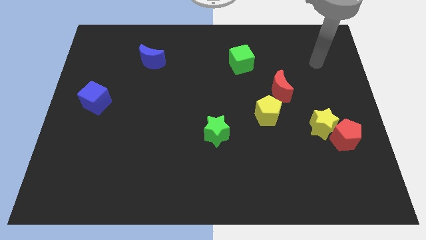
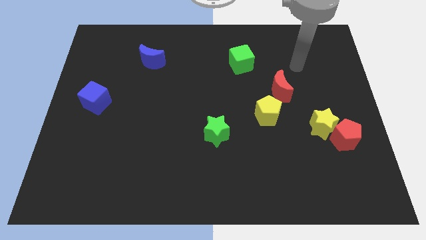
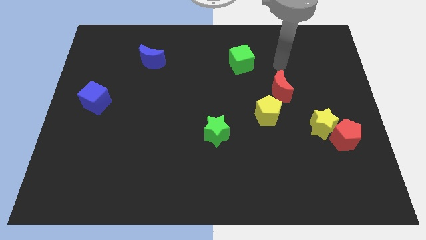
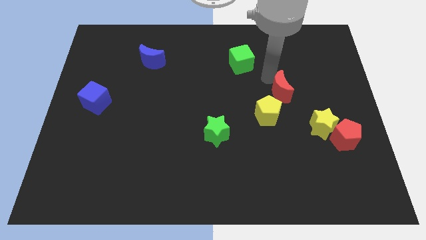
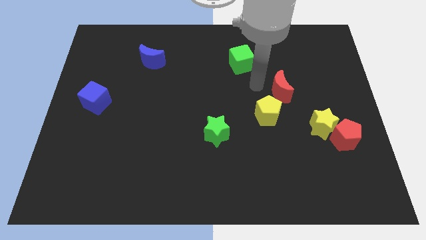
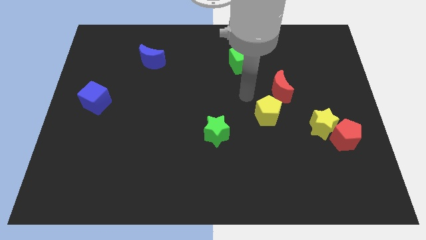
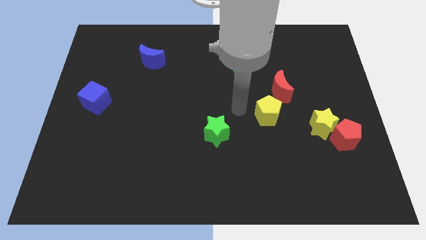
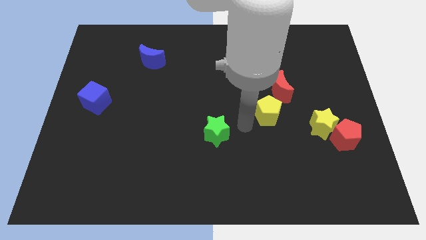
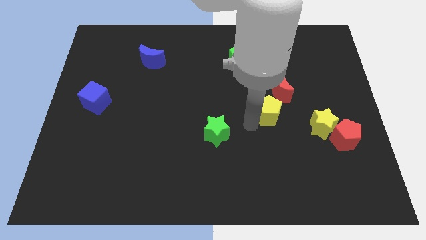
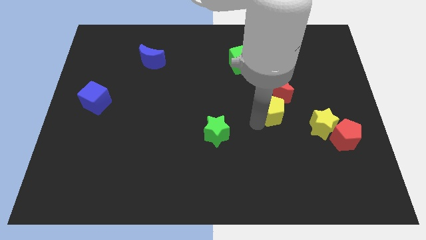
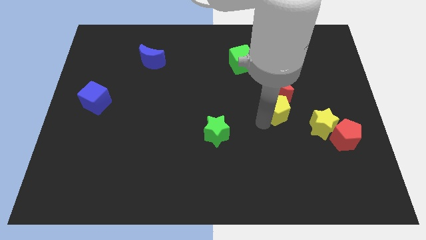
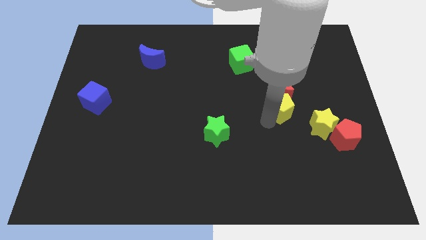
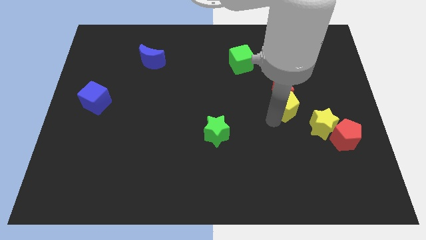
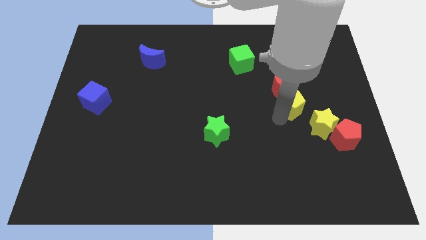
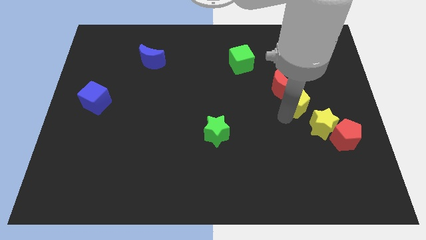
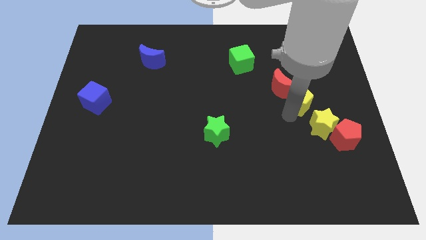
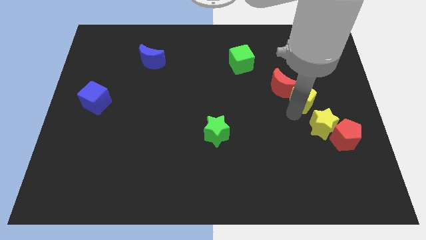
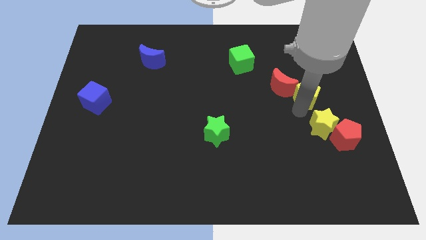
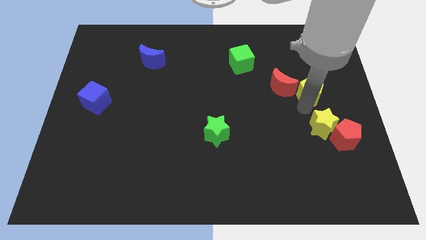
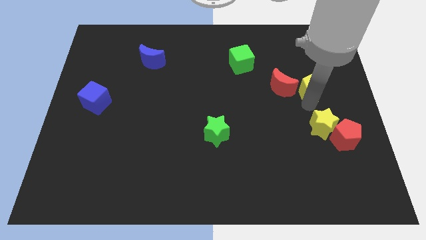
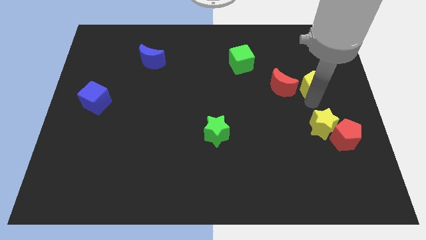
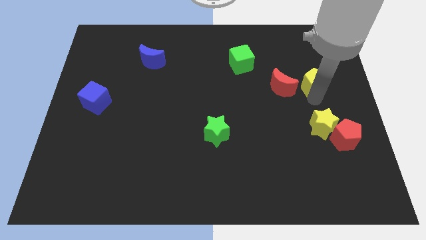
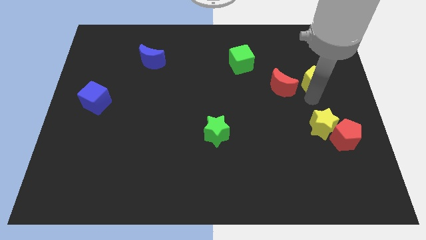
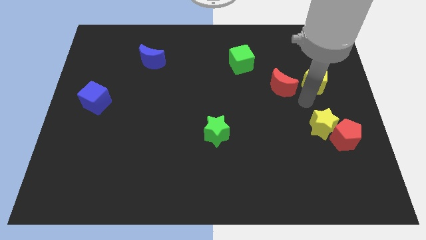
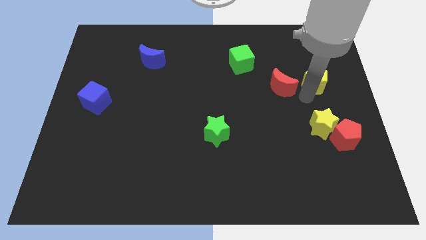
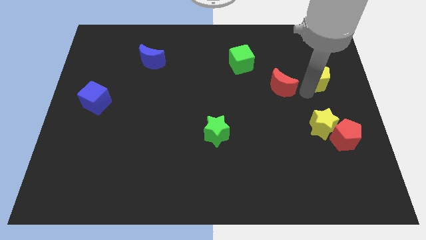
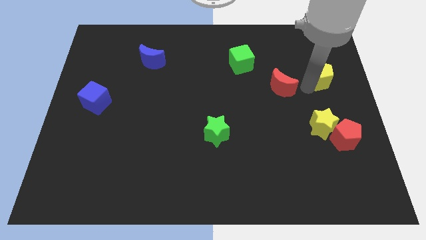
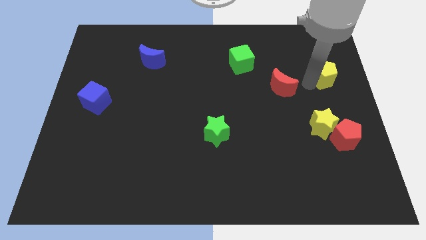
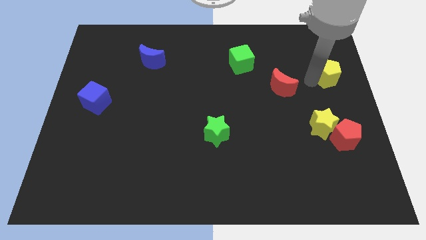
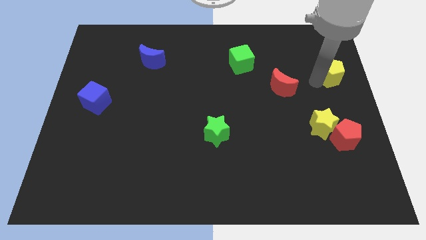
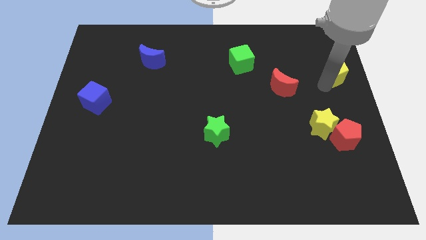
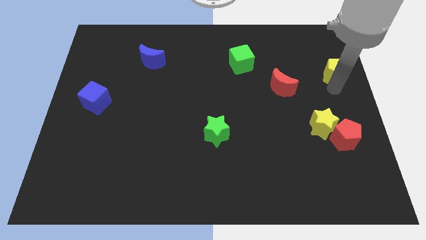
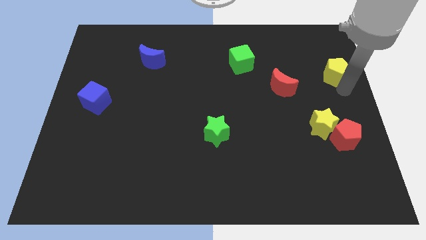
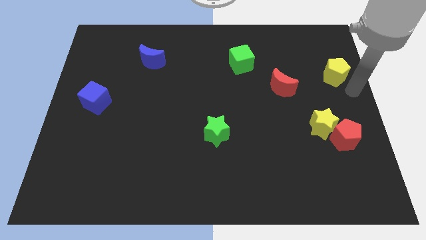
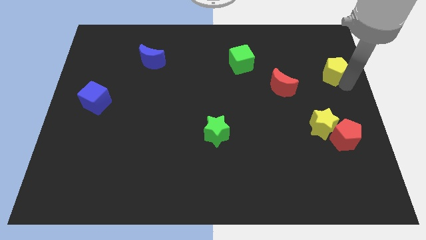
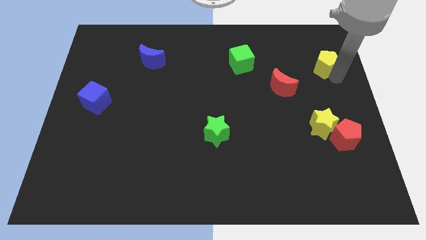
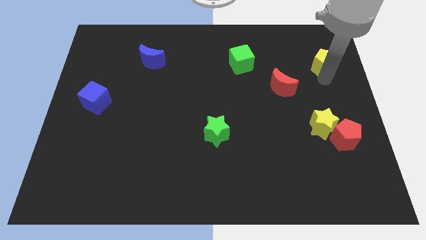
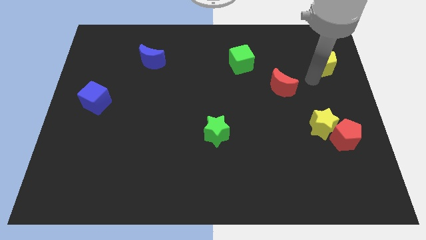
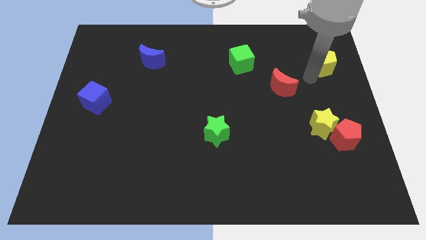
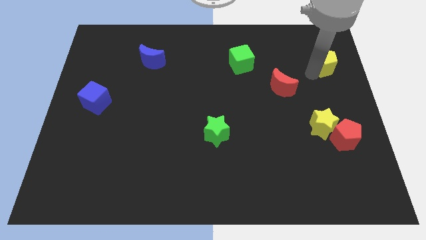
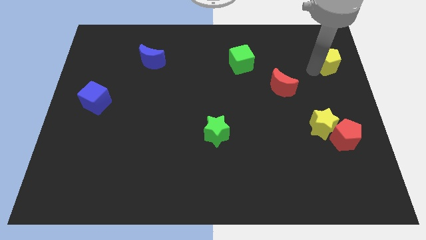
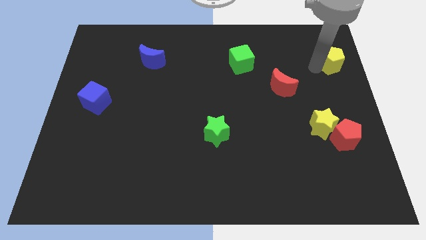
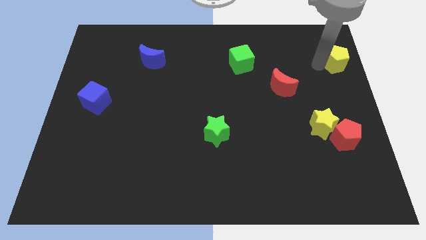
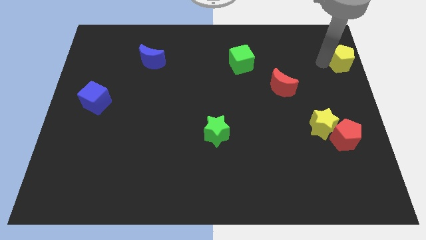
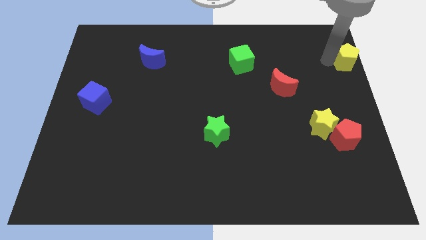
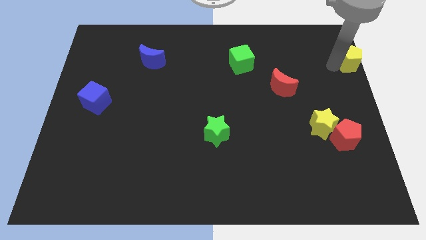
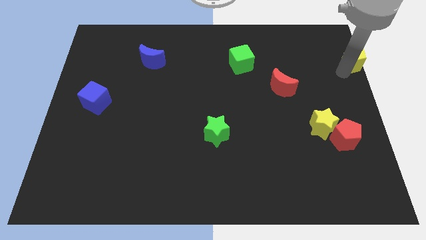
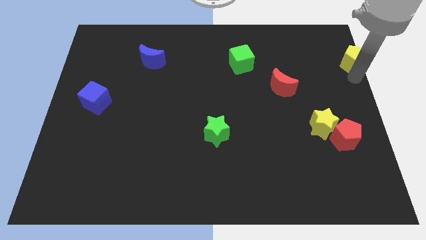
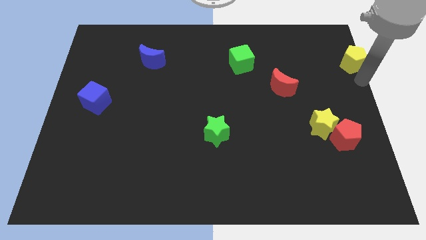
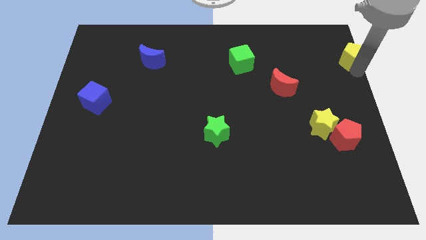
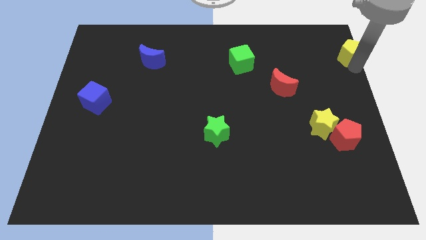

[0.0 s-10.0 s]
put the yellow pentagon to the top right

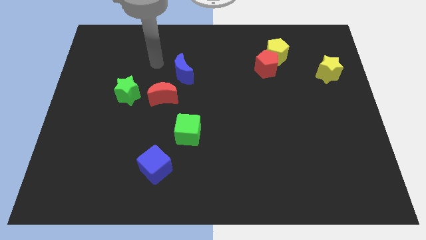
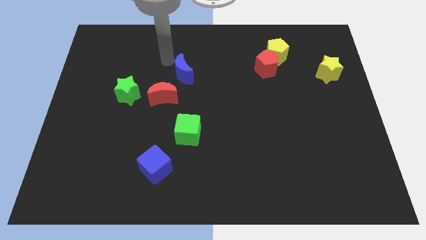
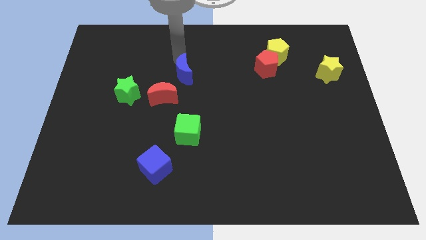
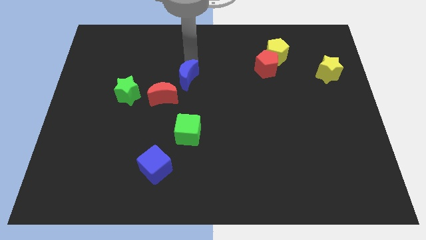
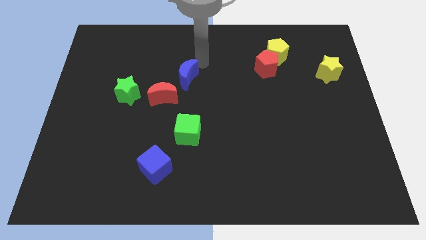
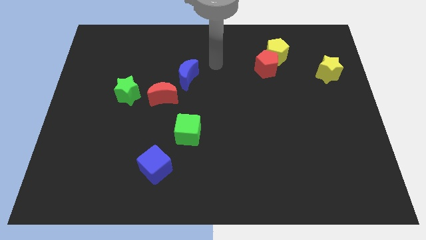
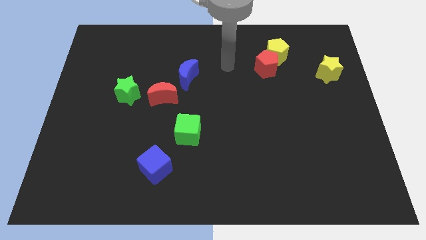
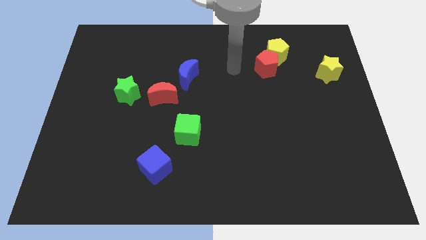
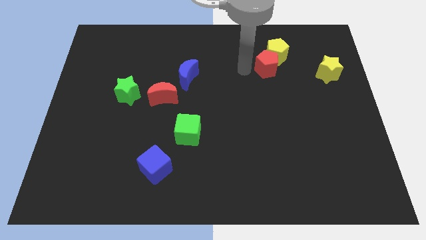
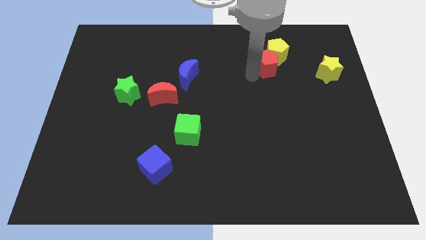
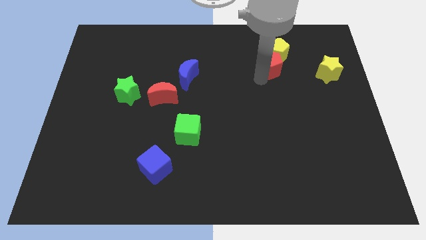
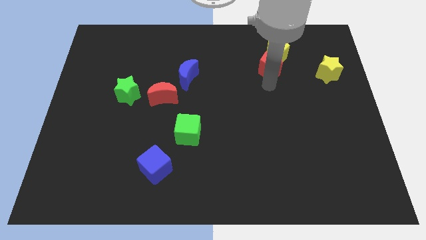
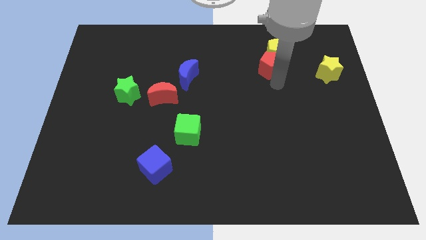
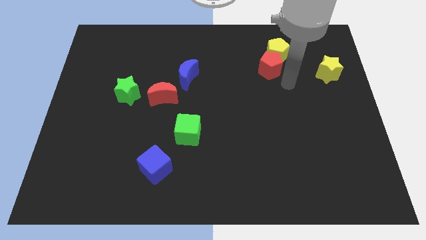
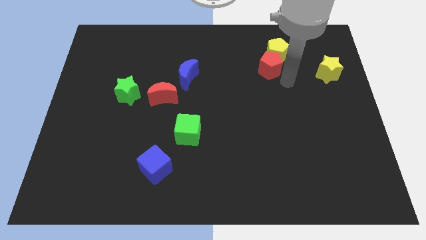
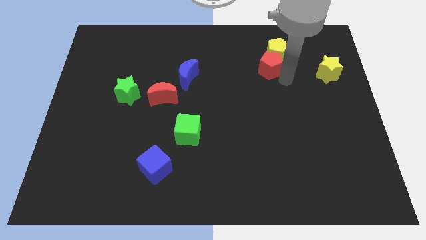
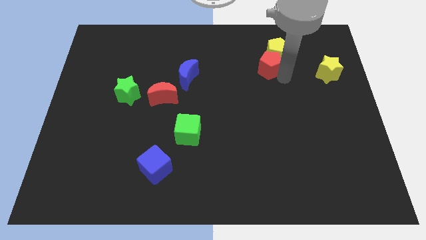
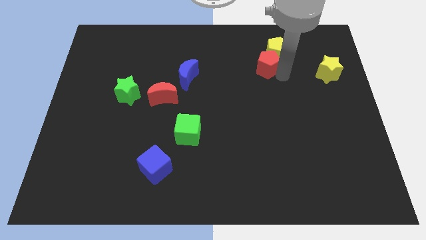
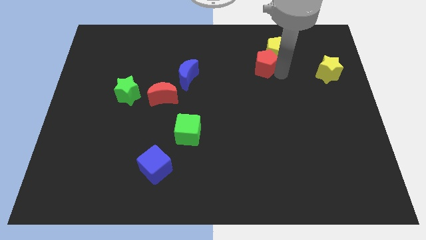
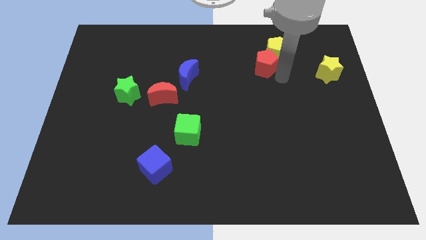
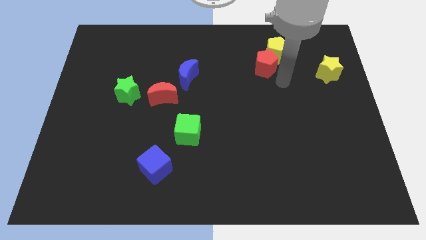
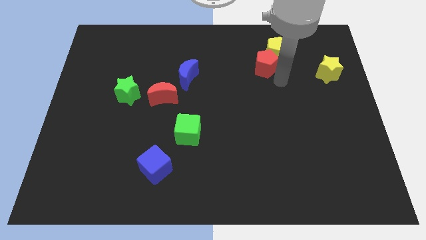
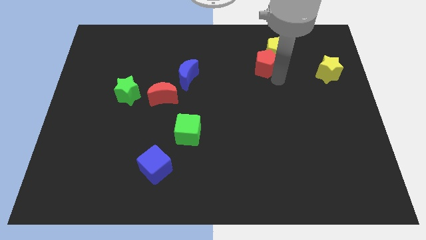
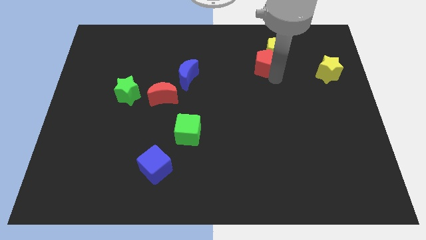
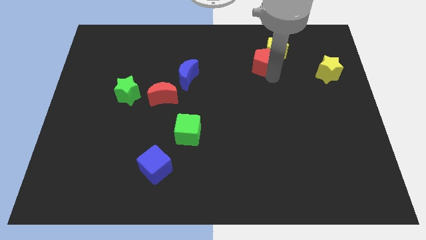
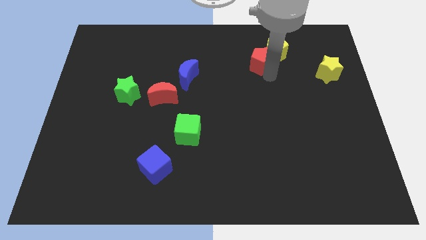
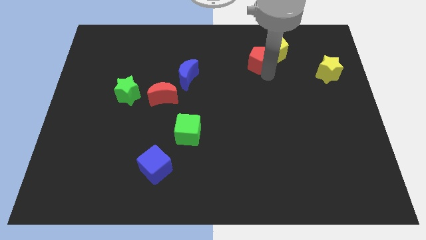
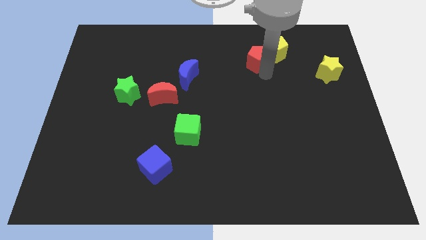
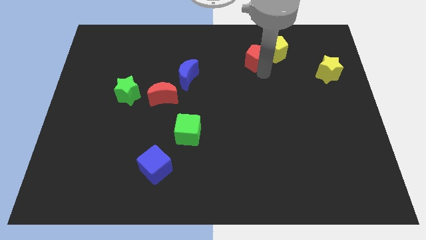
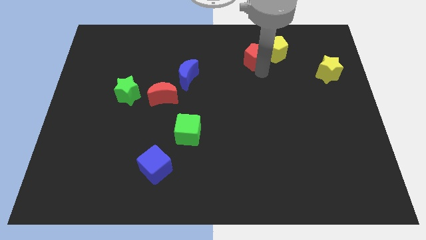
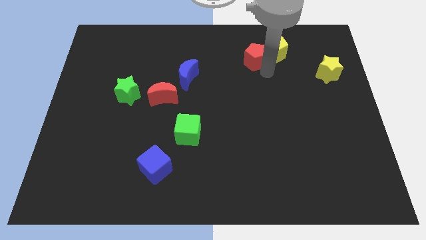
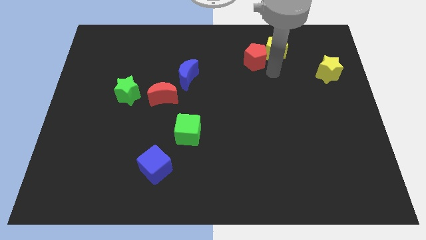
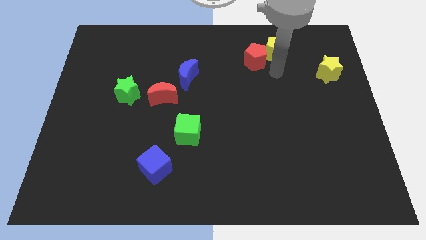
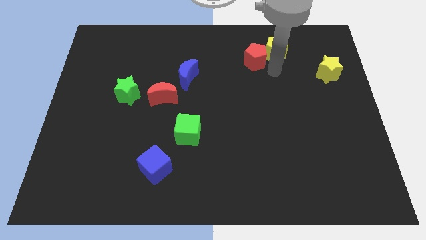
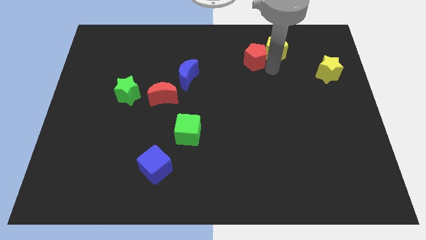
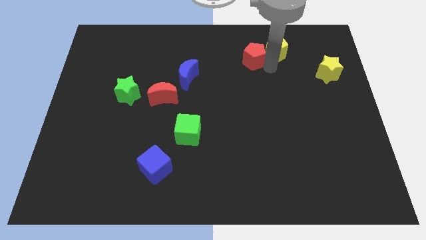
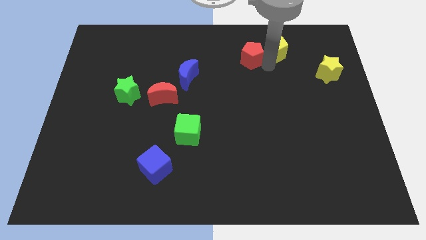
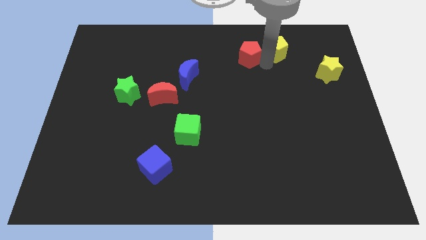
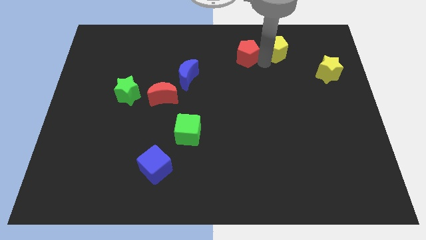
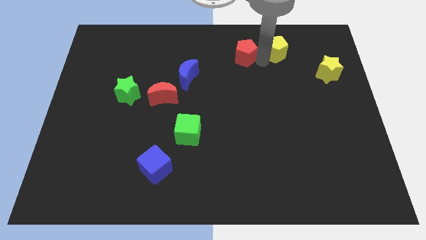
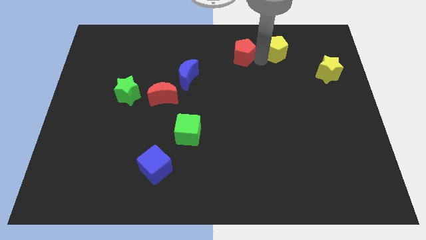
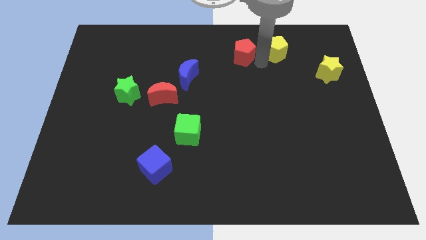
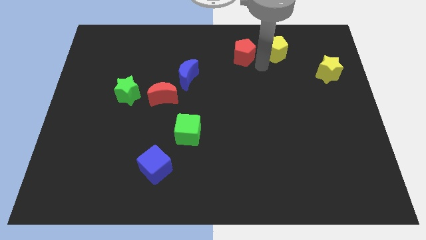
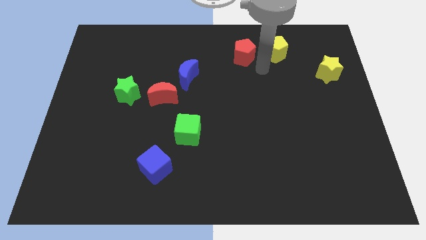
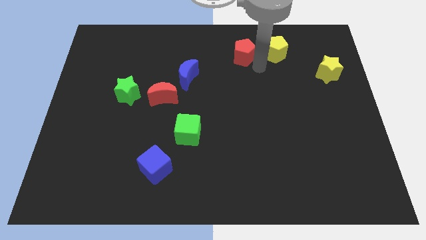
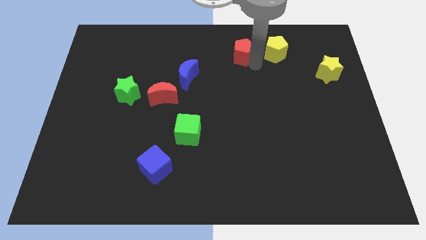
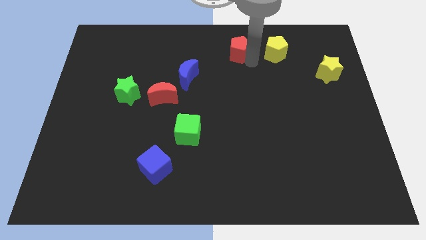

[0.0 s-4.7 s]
slide the red pentagon to the top
